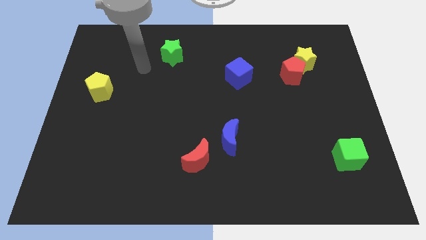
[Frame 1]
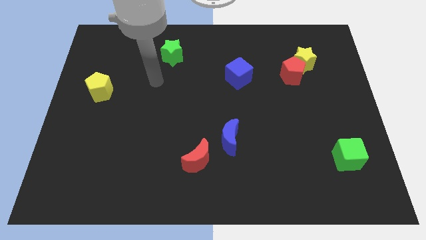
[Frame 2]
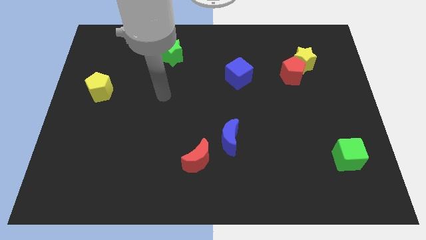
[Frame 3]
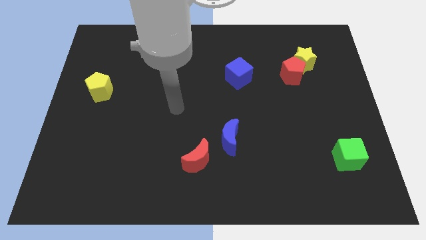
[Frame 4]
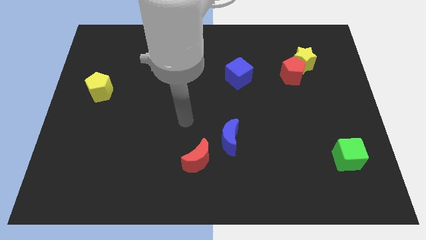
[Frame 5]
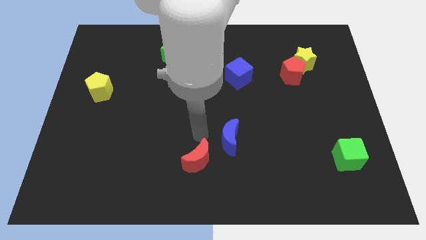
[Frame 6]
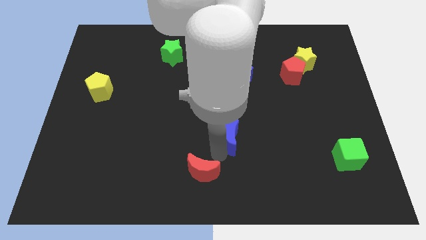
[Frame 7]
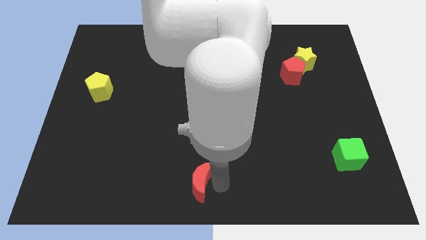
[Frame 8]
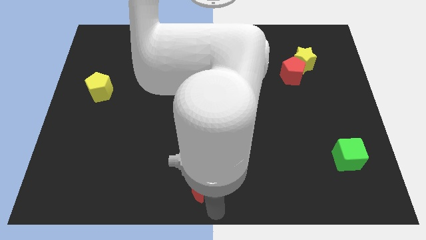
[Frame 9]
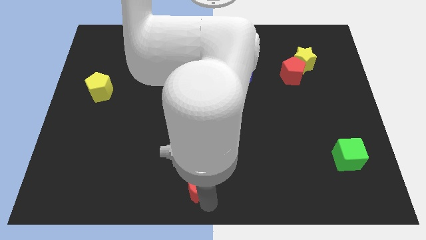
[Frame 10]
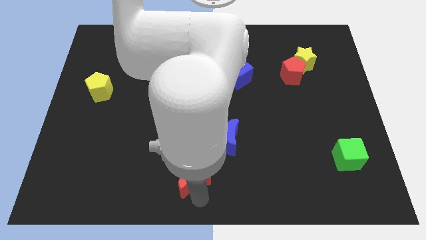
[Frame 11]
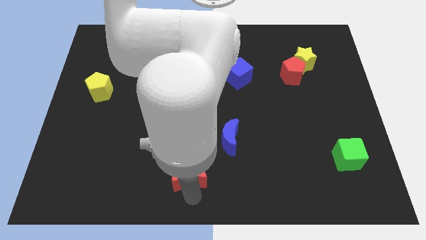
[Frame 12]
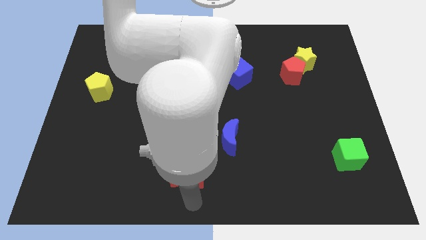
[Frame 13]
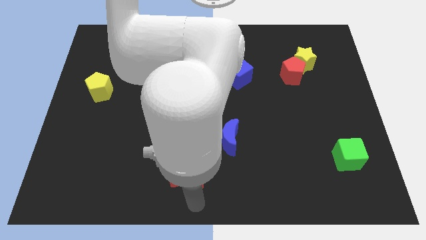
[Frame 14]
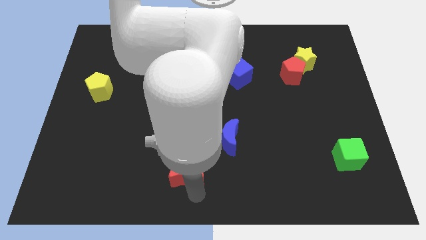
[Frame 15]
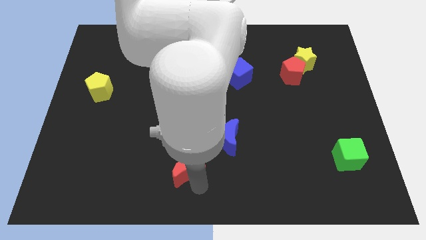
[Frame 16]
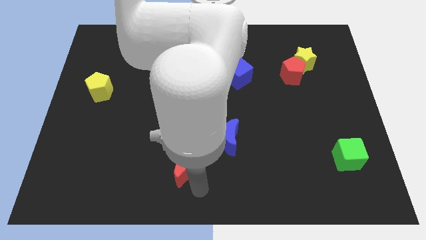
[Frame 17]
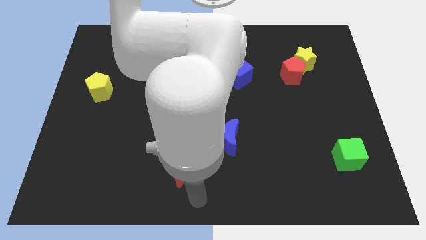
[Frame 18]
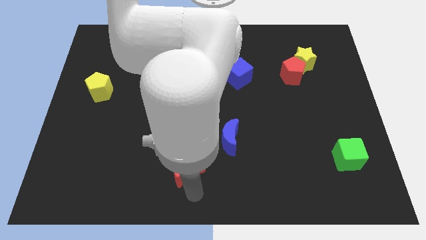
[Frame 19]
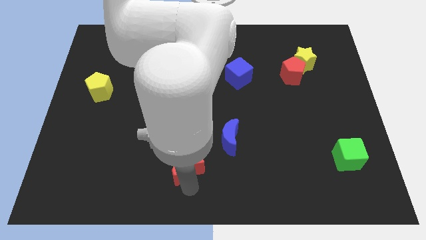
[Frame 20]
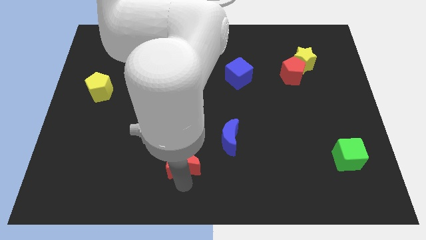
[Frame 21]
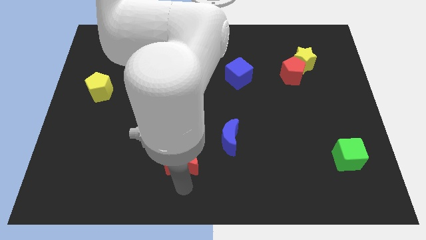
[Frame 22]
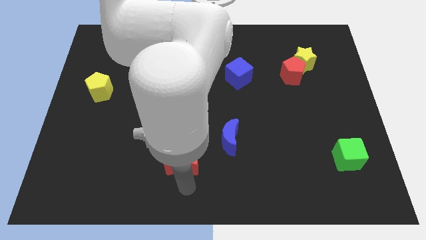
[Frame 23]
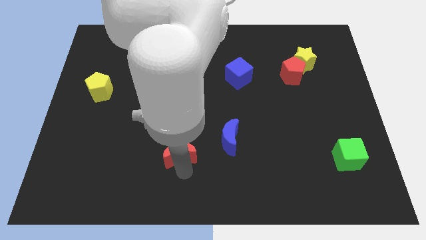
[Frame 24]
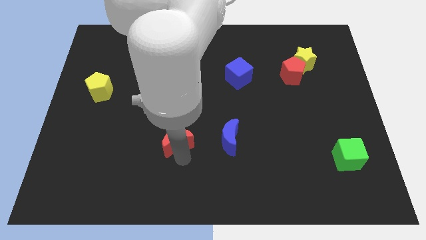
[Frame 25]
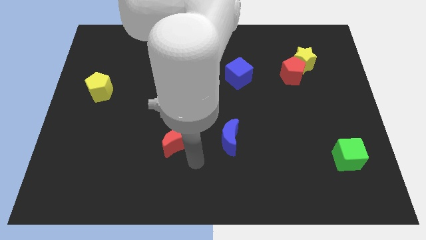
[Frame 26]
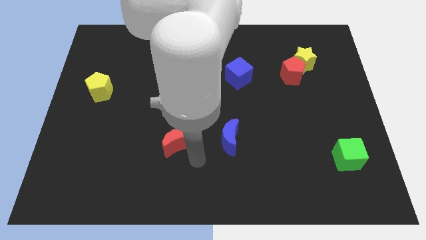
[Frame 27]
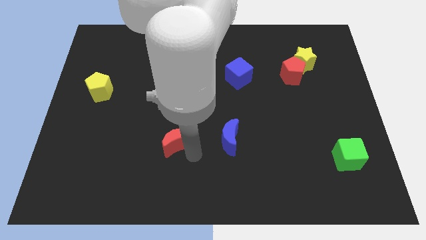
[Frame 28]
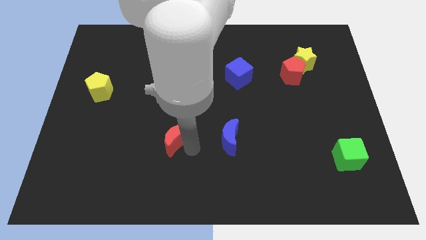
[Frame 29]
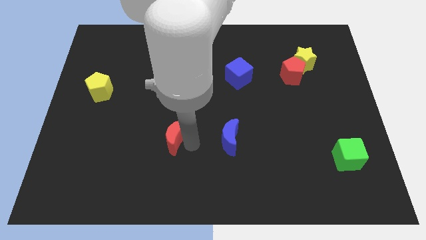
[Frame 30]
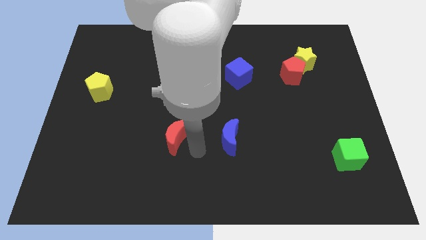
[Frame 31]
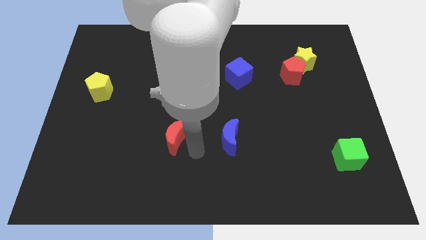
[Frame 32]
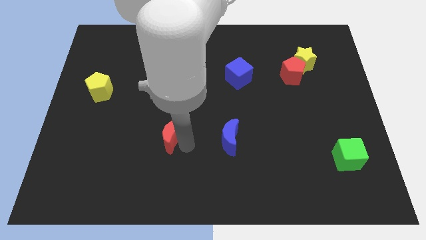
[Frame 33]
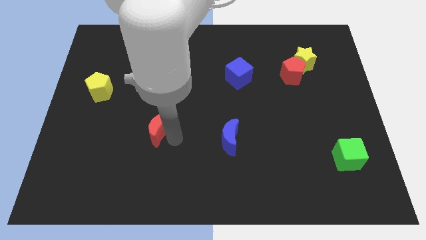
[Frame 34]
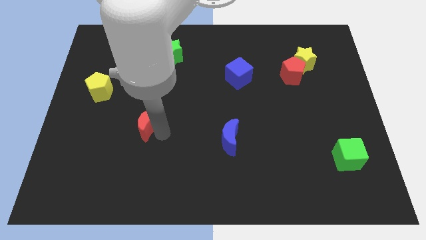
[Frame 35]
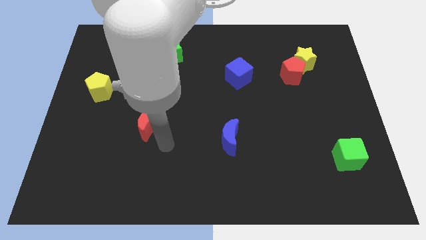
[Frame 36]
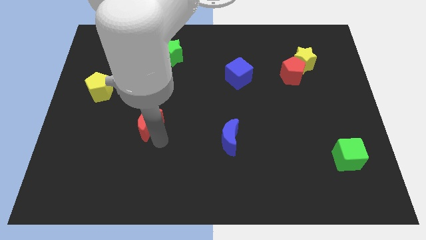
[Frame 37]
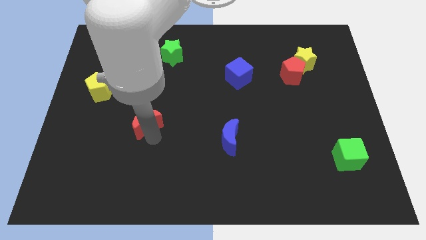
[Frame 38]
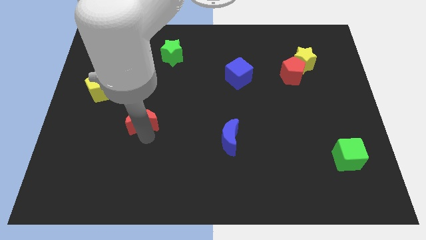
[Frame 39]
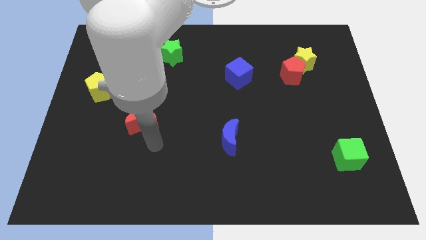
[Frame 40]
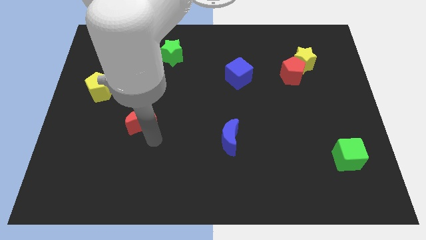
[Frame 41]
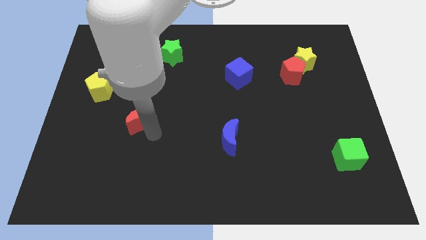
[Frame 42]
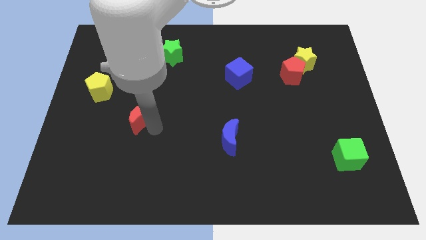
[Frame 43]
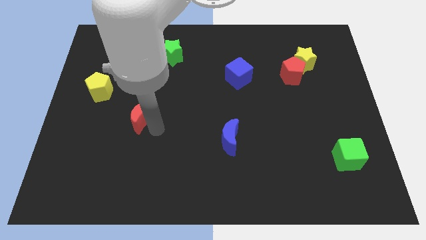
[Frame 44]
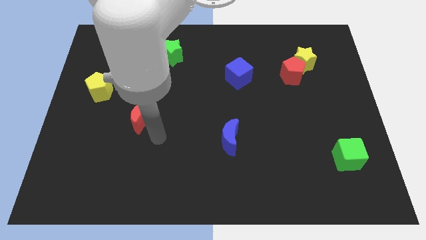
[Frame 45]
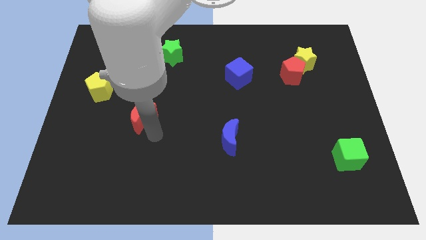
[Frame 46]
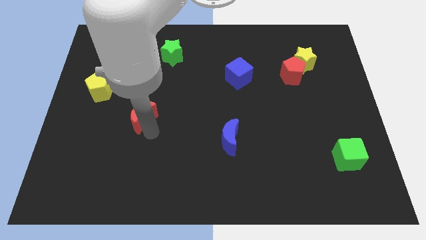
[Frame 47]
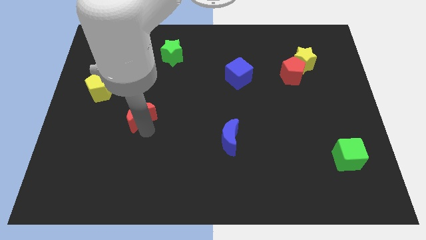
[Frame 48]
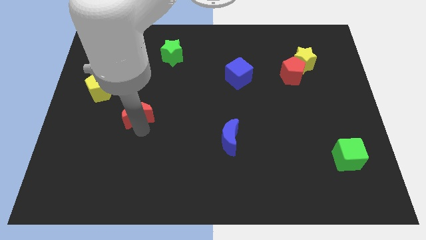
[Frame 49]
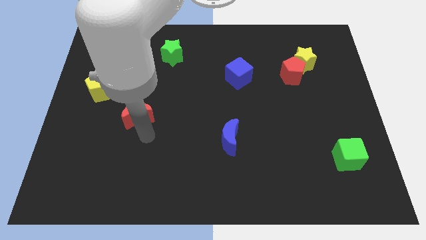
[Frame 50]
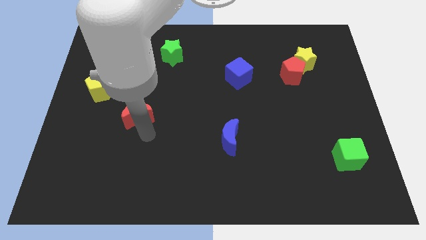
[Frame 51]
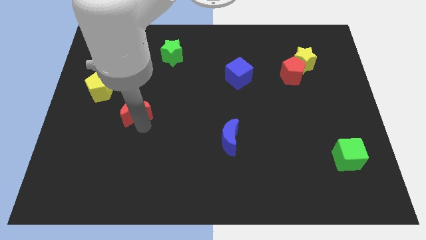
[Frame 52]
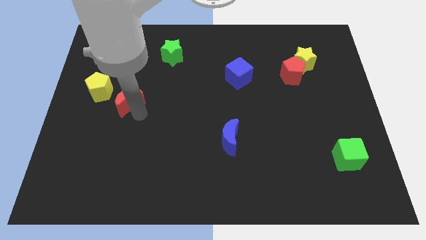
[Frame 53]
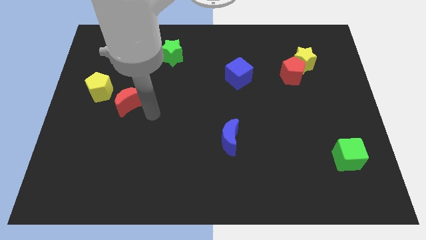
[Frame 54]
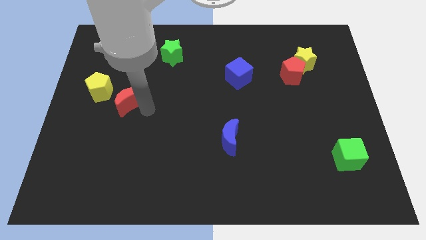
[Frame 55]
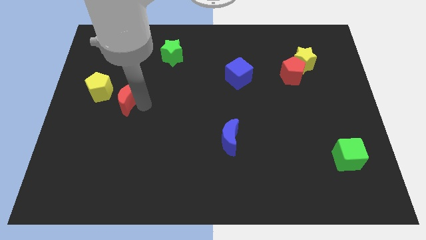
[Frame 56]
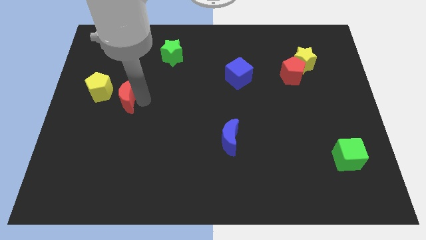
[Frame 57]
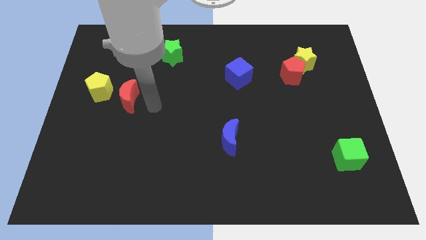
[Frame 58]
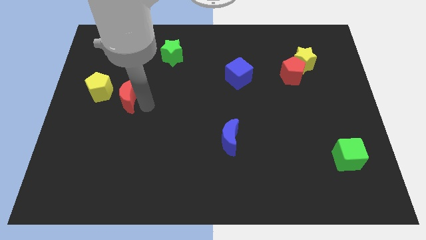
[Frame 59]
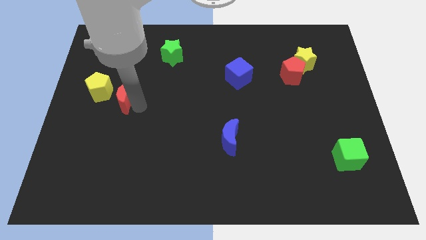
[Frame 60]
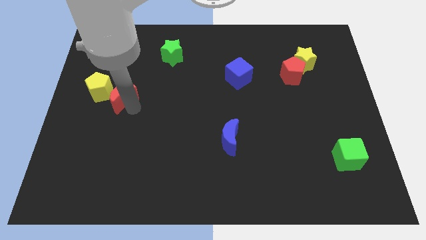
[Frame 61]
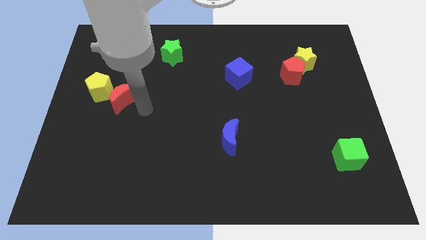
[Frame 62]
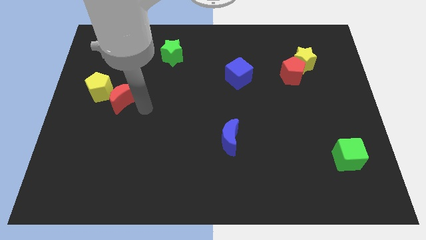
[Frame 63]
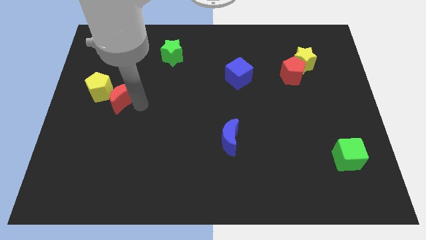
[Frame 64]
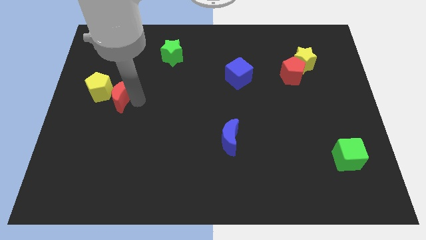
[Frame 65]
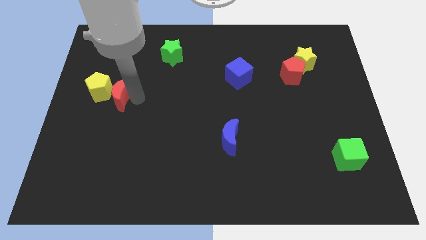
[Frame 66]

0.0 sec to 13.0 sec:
move the red moon towards the yellow pentagon
